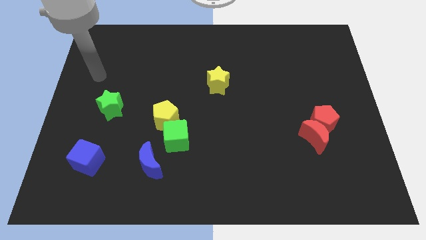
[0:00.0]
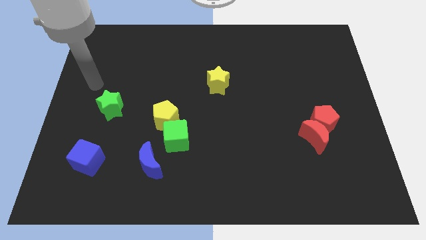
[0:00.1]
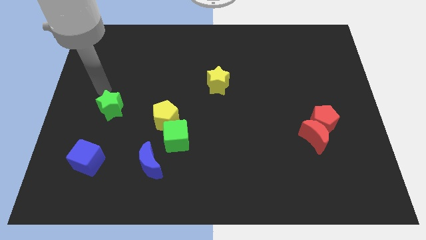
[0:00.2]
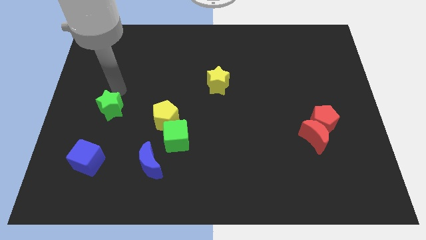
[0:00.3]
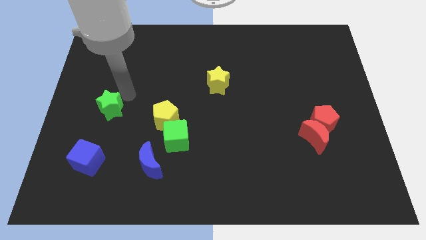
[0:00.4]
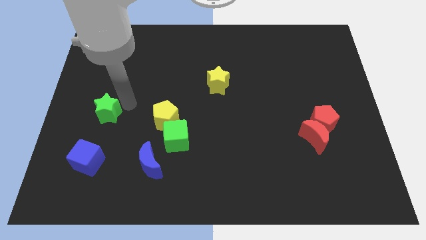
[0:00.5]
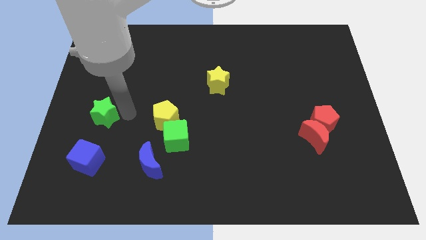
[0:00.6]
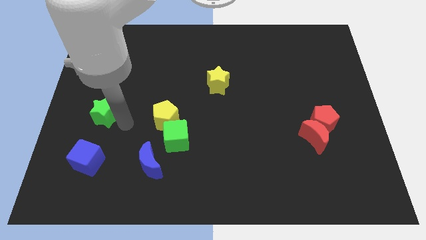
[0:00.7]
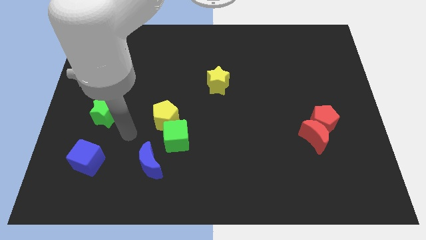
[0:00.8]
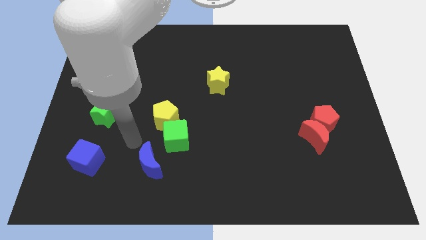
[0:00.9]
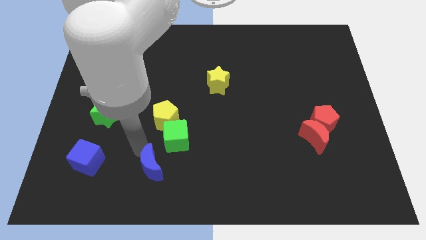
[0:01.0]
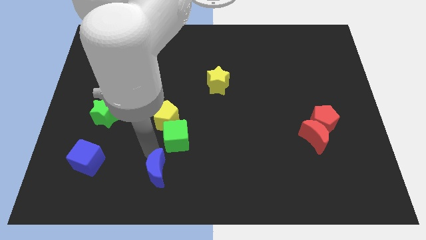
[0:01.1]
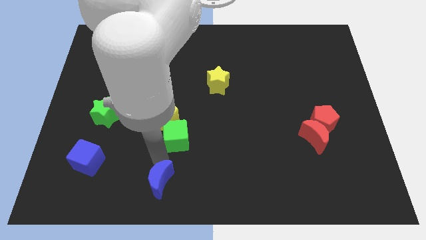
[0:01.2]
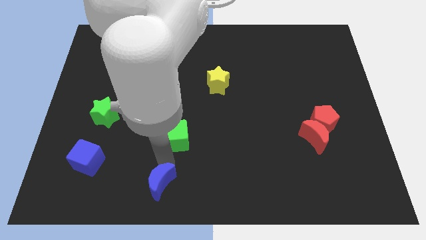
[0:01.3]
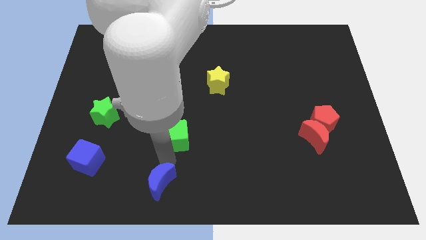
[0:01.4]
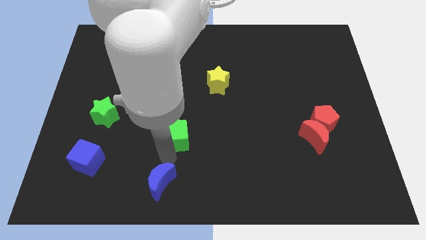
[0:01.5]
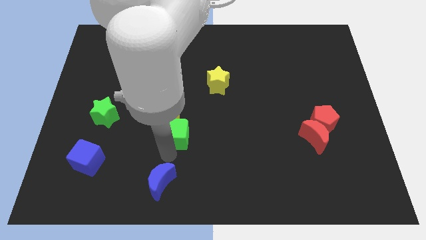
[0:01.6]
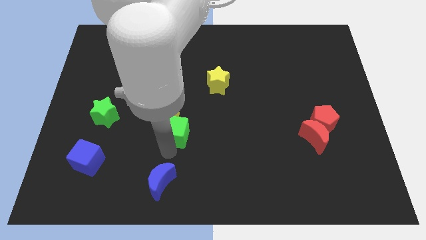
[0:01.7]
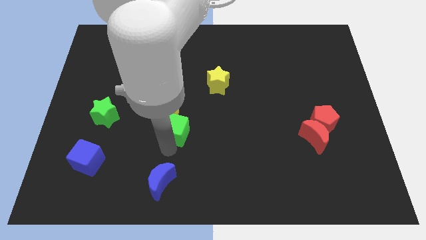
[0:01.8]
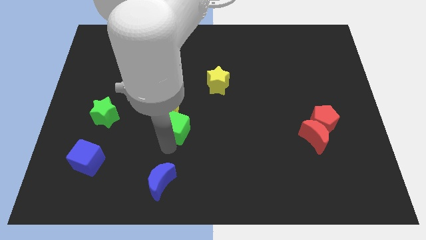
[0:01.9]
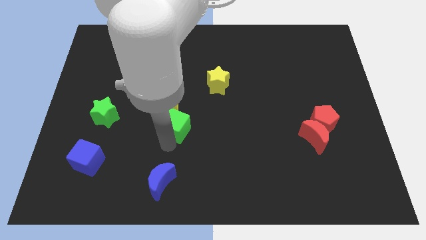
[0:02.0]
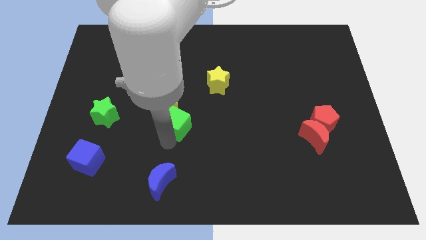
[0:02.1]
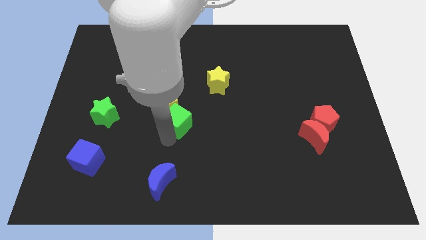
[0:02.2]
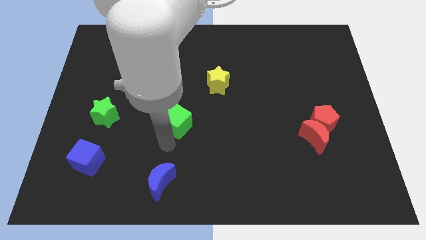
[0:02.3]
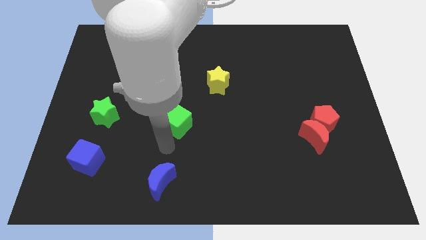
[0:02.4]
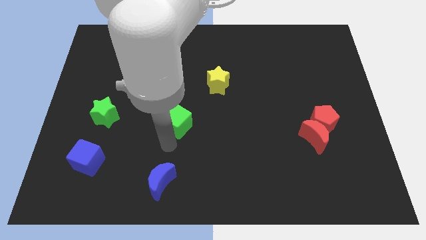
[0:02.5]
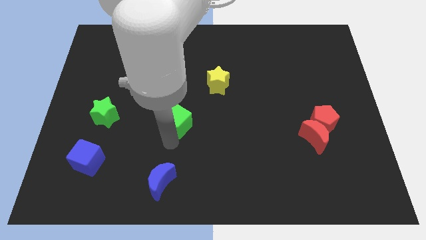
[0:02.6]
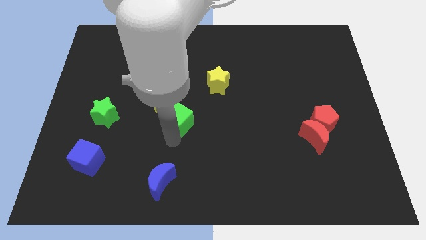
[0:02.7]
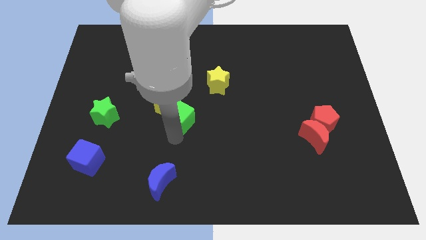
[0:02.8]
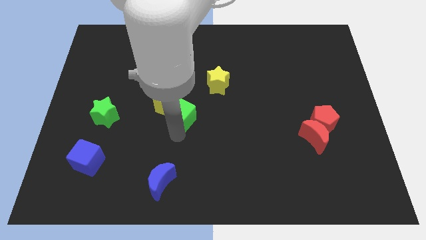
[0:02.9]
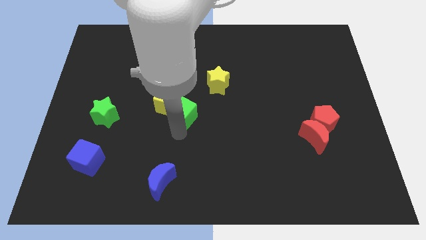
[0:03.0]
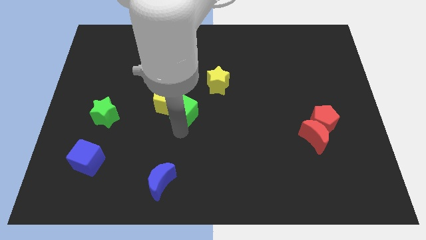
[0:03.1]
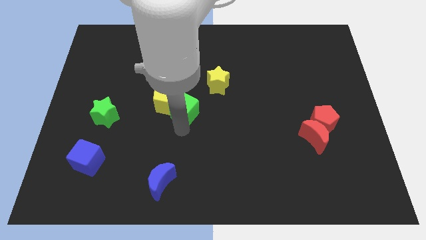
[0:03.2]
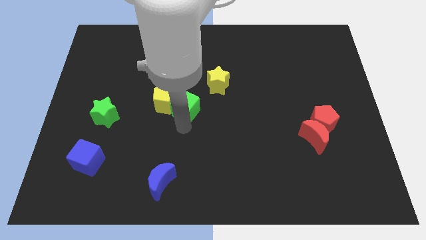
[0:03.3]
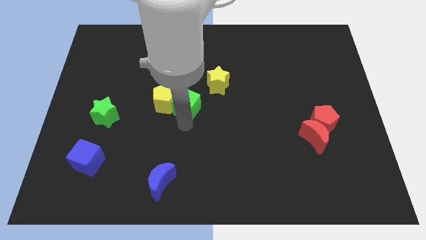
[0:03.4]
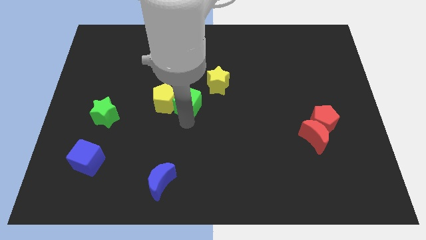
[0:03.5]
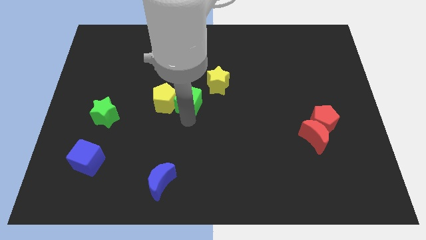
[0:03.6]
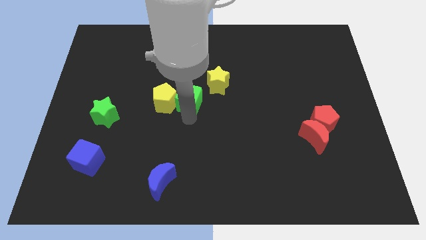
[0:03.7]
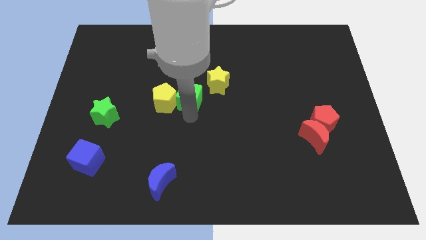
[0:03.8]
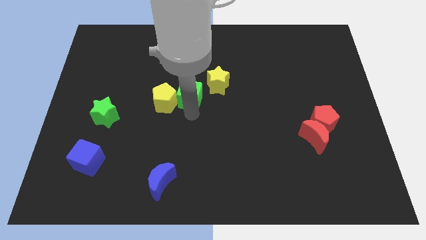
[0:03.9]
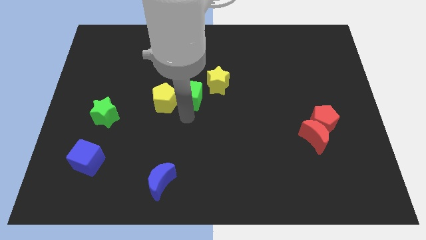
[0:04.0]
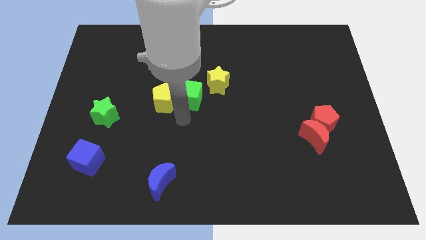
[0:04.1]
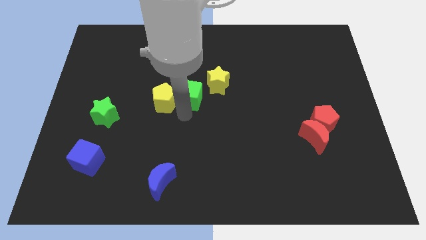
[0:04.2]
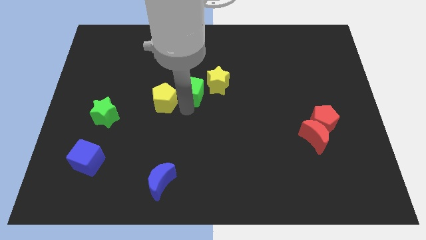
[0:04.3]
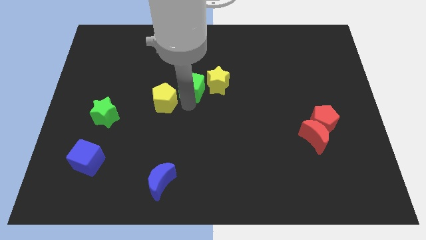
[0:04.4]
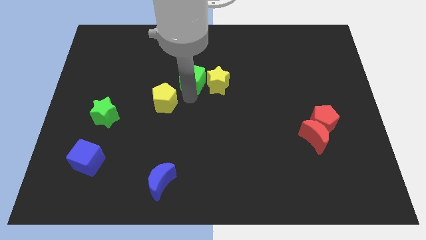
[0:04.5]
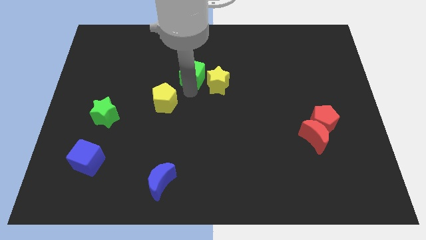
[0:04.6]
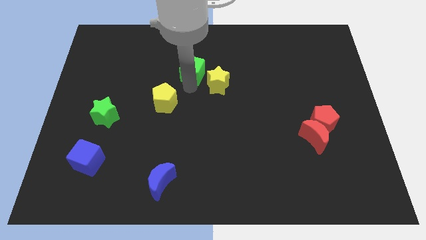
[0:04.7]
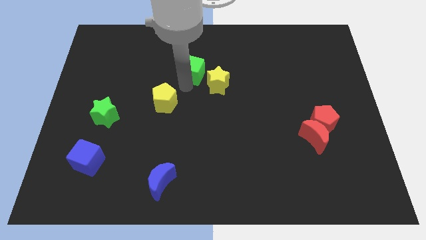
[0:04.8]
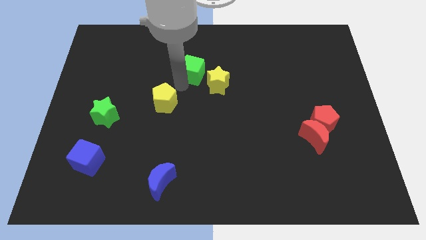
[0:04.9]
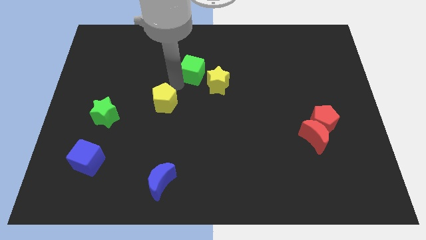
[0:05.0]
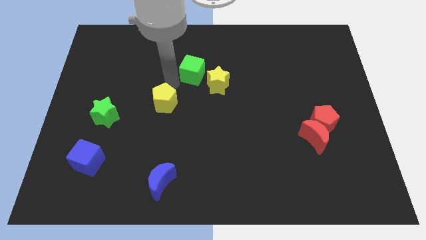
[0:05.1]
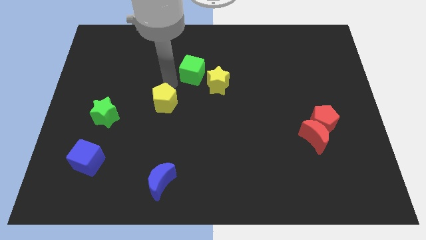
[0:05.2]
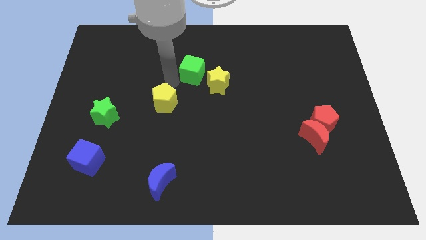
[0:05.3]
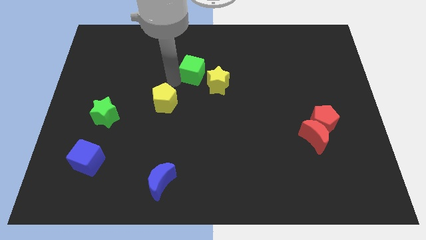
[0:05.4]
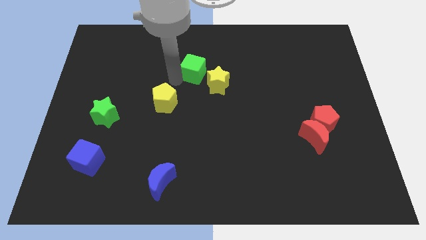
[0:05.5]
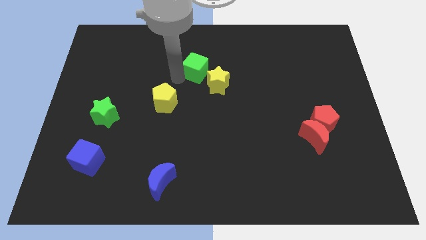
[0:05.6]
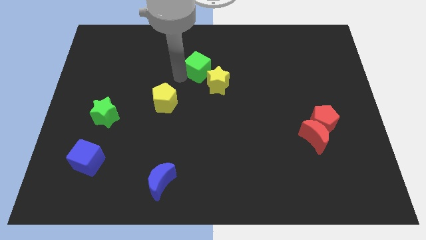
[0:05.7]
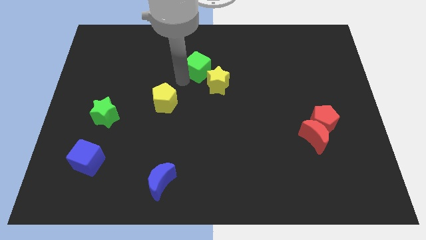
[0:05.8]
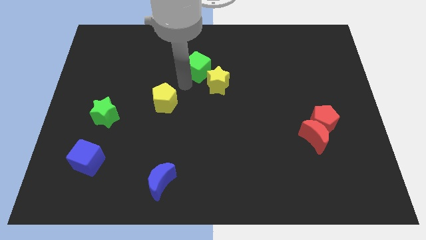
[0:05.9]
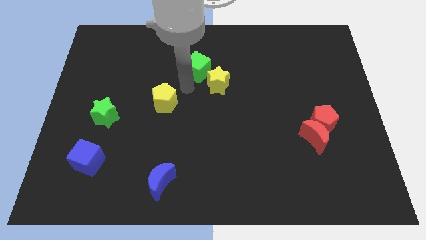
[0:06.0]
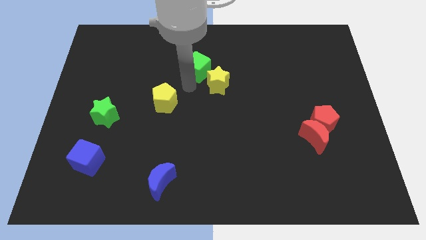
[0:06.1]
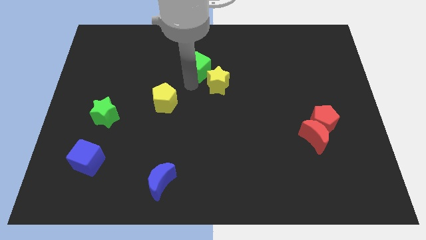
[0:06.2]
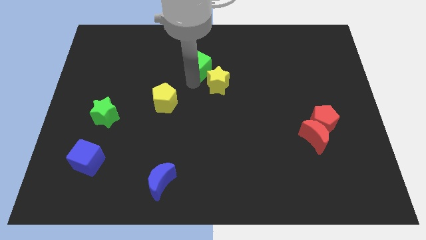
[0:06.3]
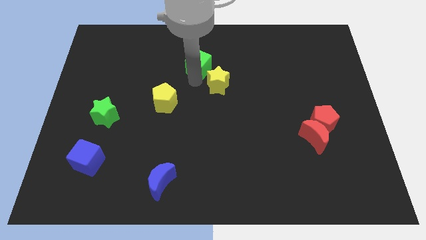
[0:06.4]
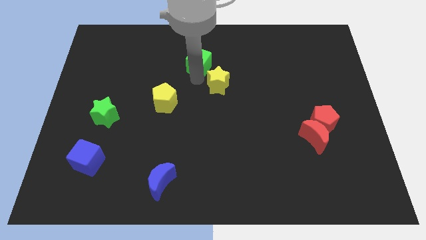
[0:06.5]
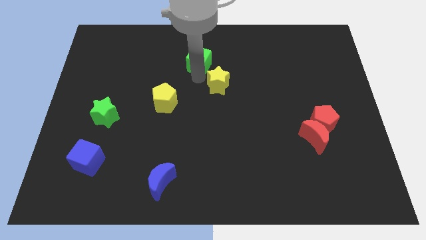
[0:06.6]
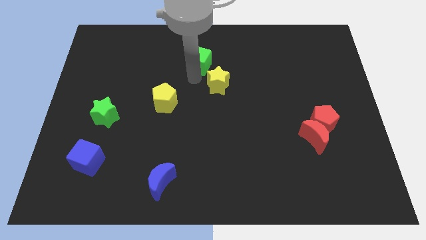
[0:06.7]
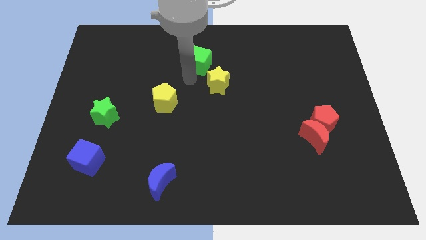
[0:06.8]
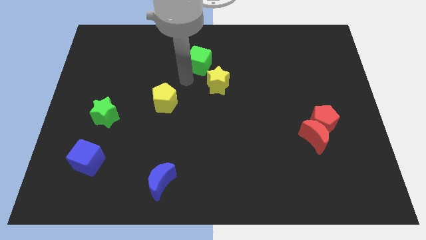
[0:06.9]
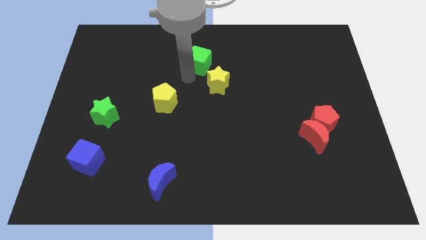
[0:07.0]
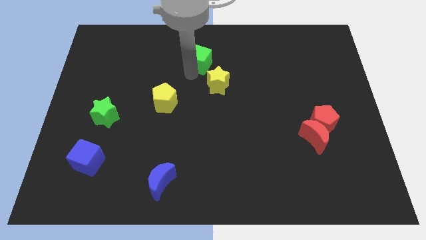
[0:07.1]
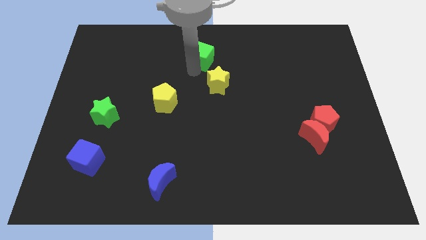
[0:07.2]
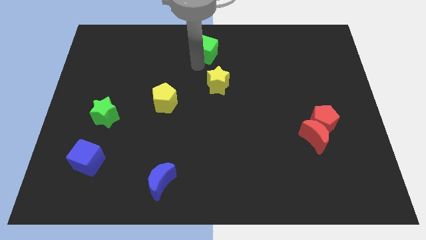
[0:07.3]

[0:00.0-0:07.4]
put the green cube to the towards your base
